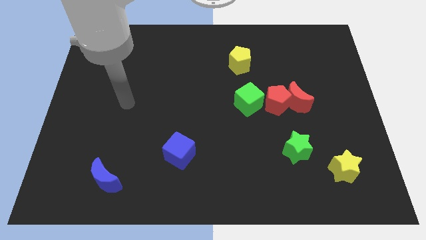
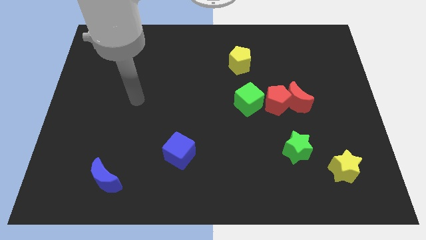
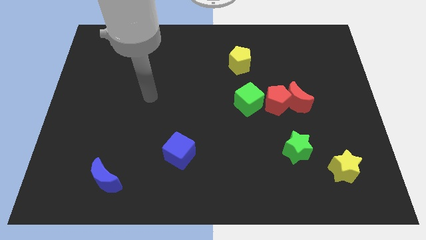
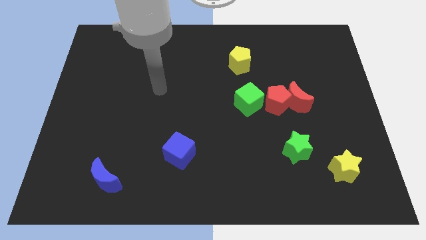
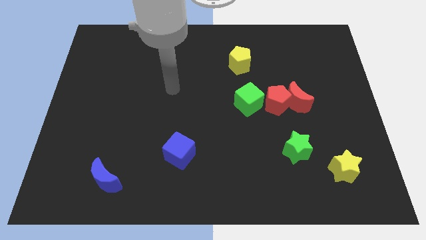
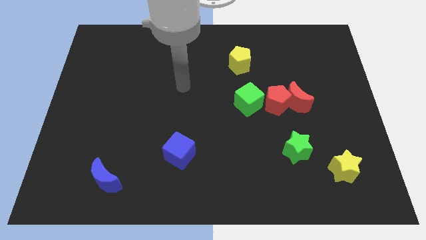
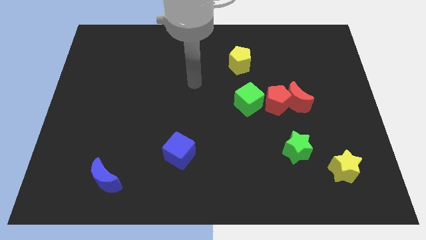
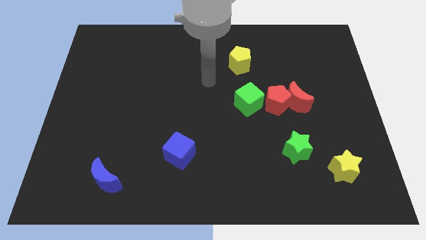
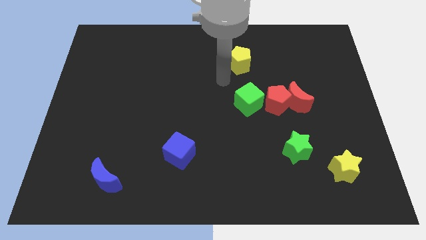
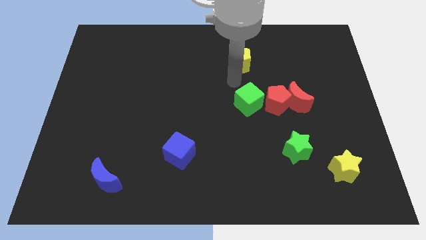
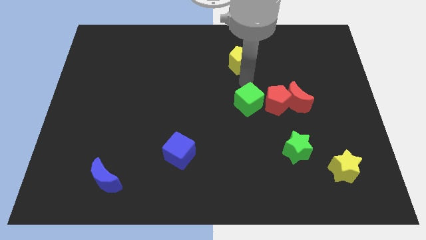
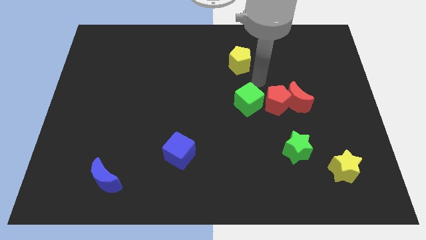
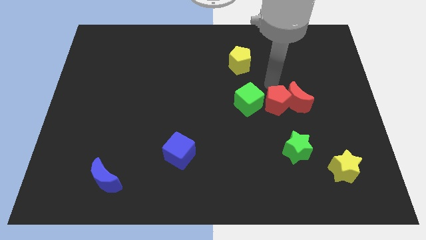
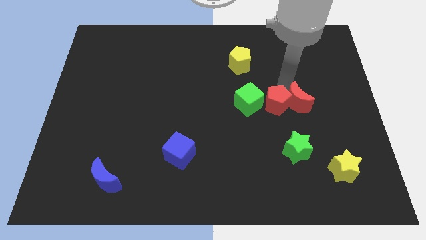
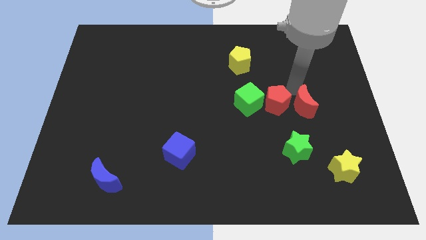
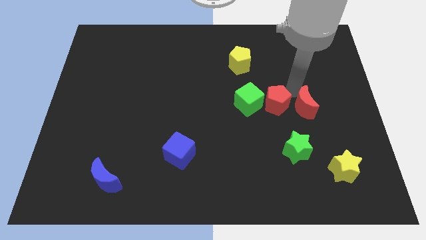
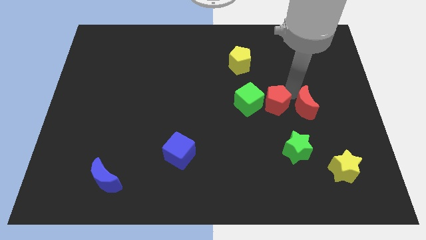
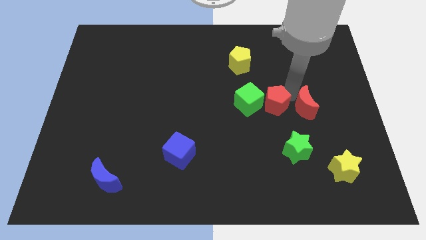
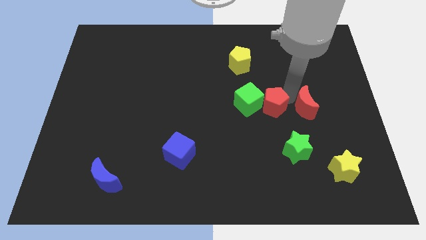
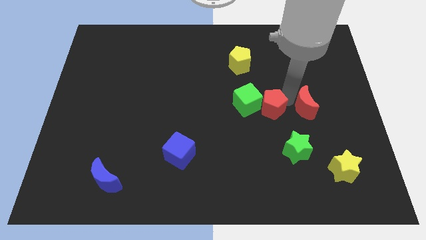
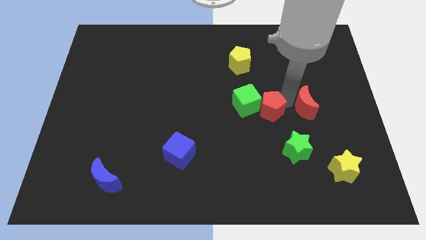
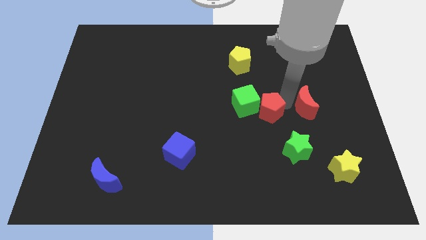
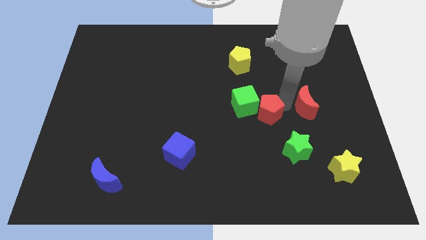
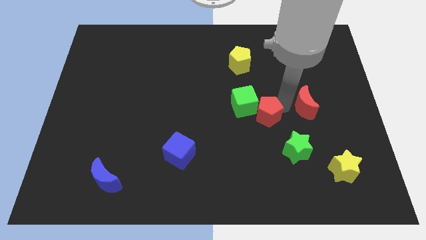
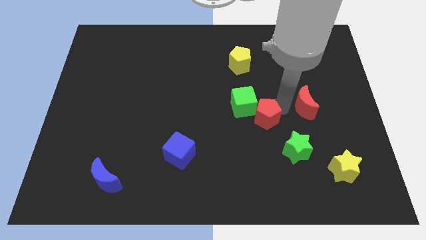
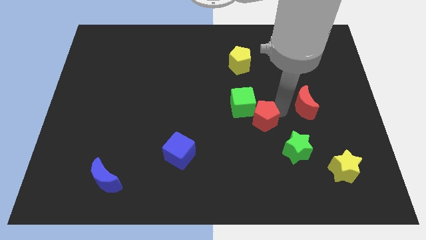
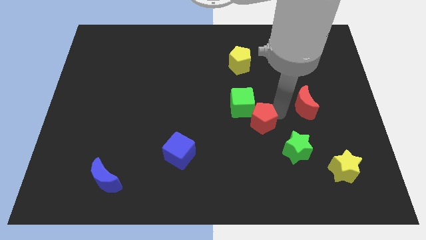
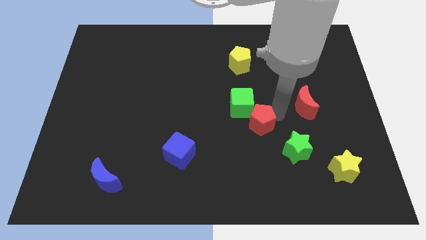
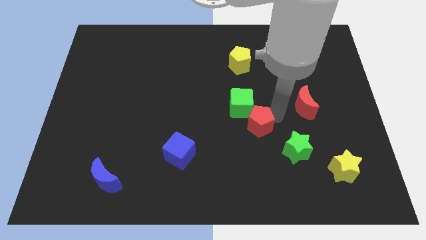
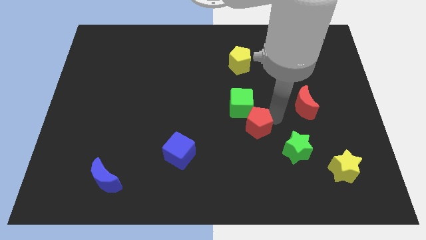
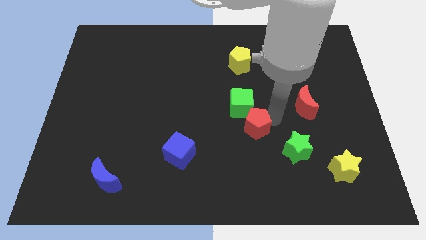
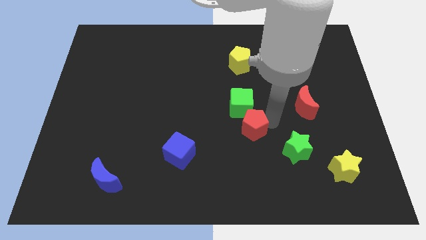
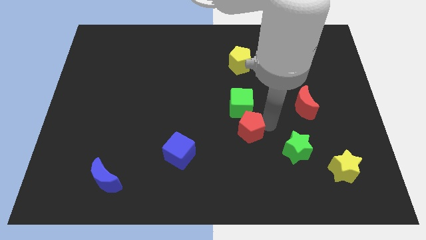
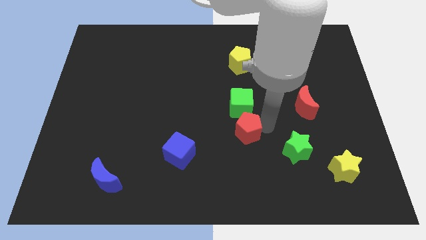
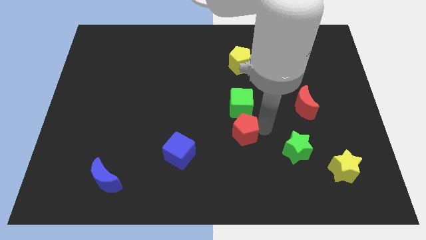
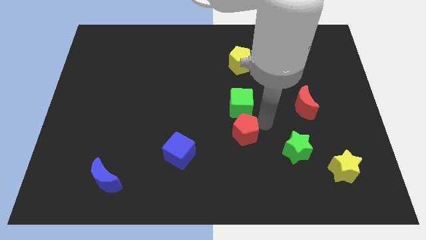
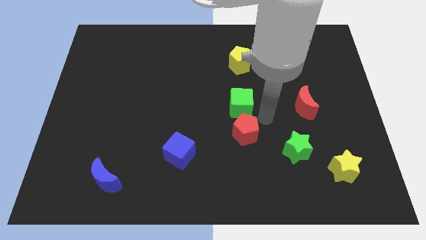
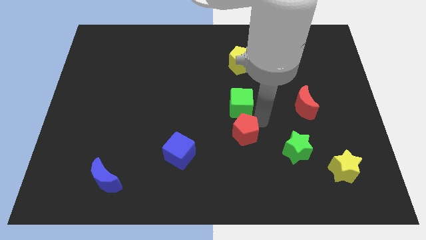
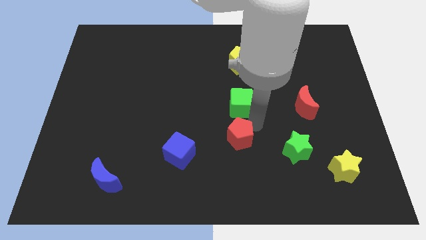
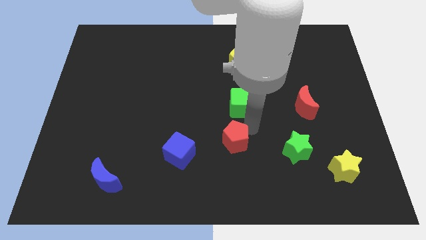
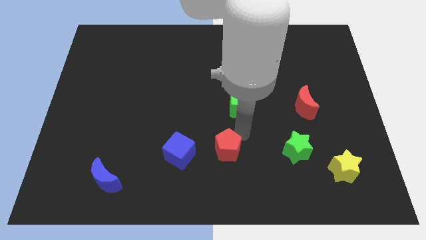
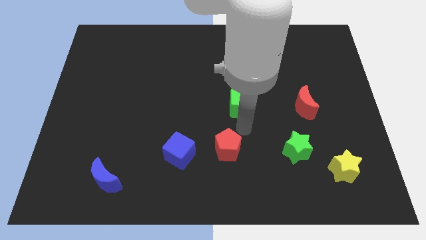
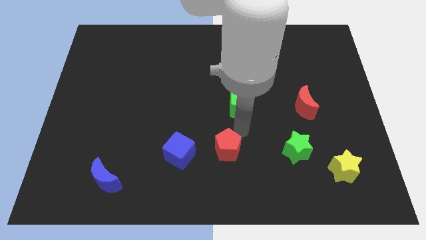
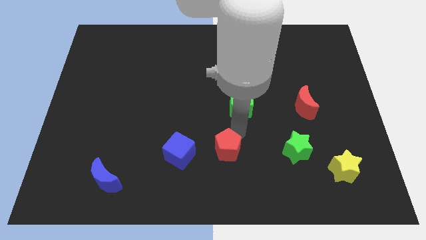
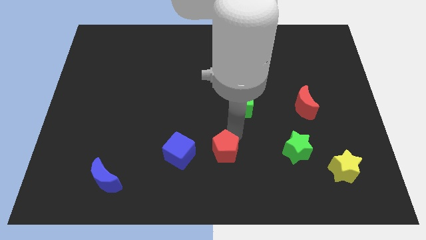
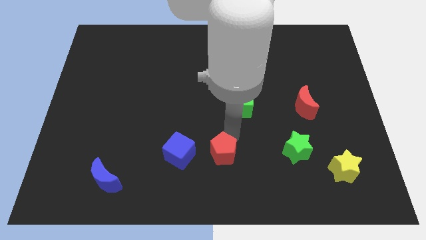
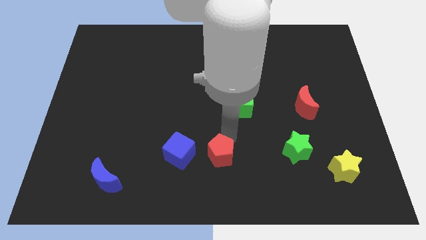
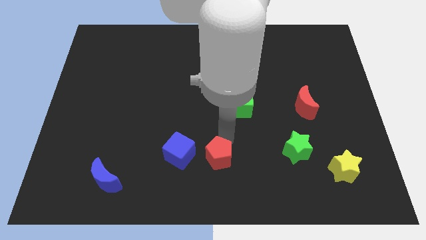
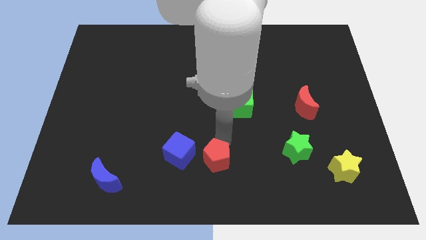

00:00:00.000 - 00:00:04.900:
put the red pentagon to the bottom right of the blue cube

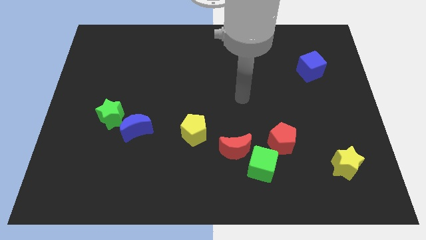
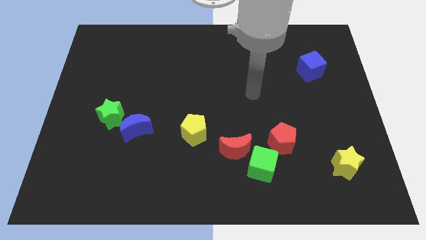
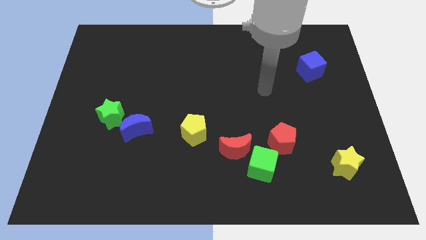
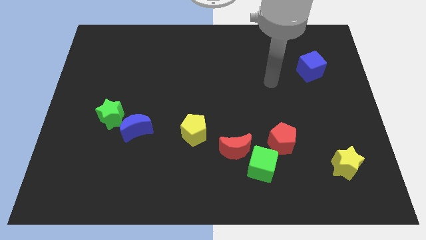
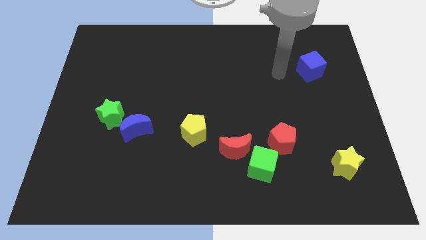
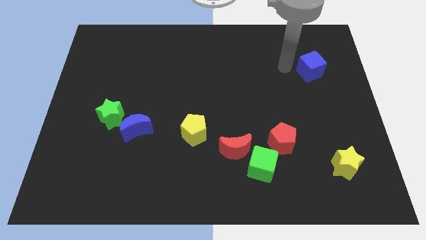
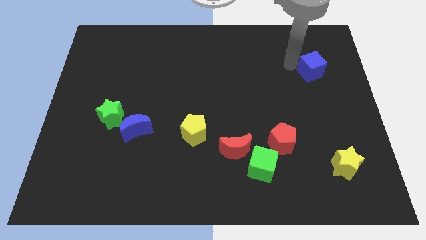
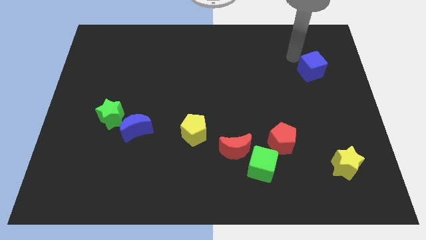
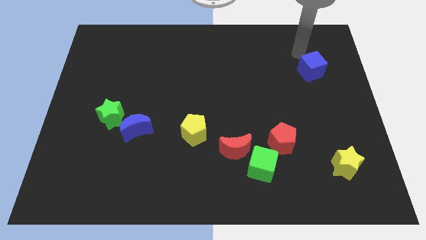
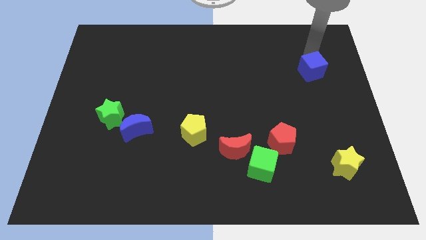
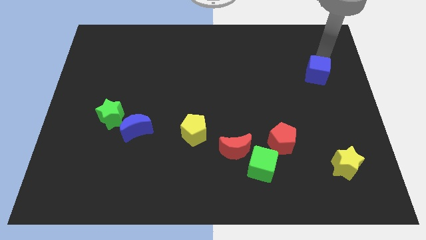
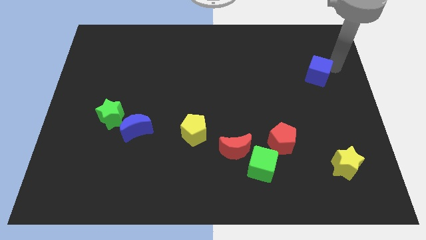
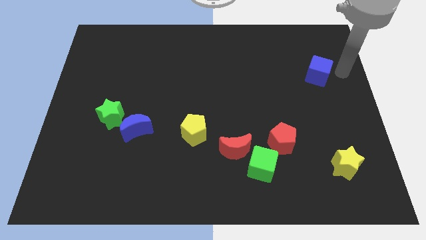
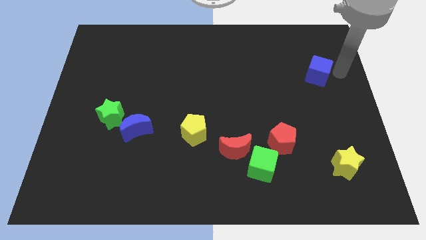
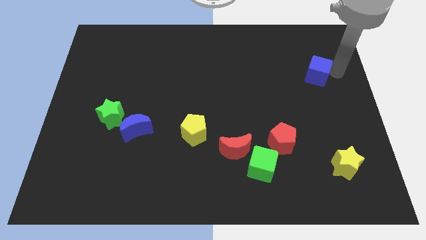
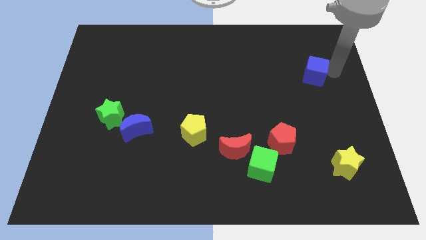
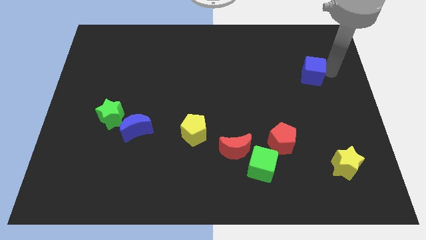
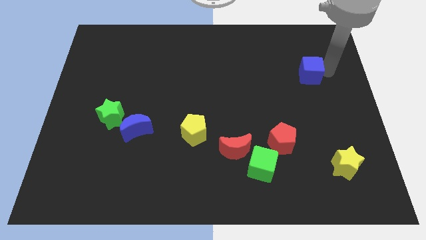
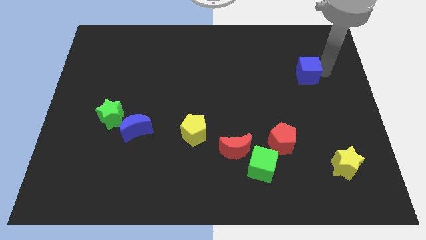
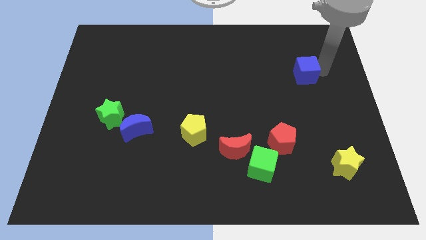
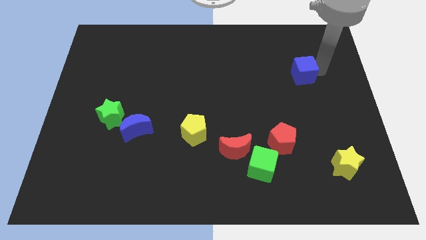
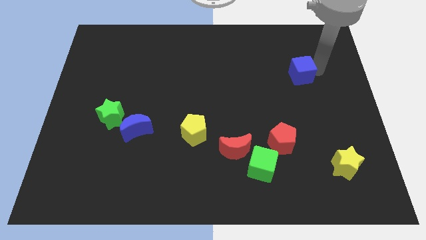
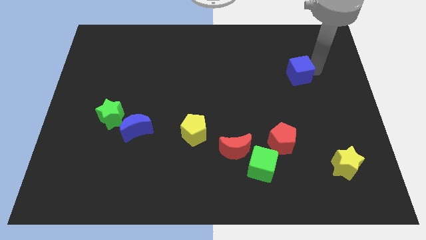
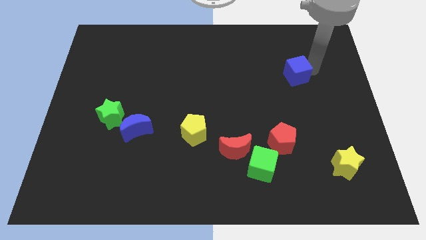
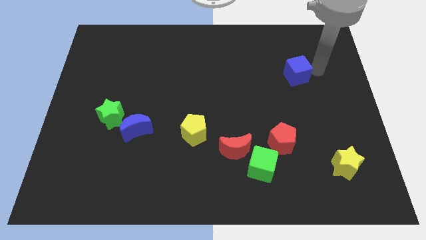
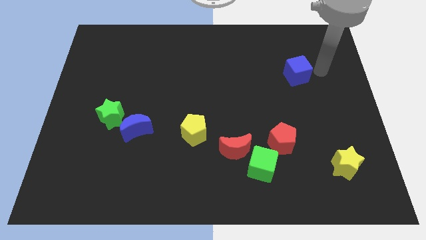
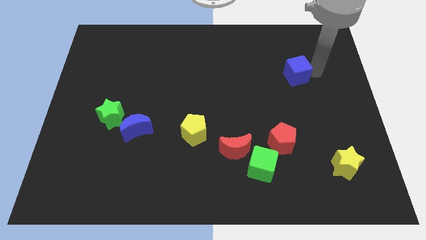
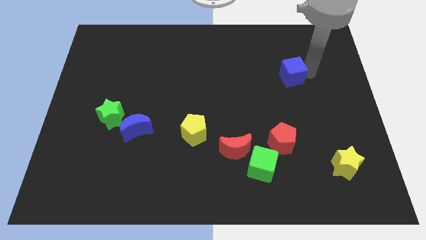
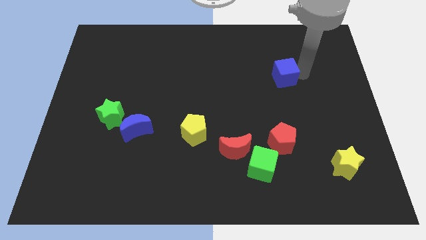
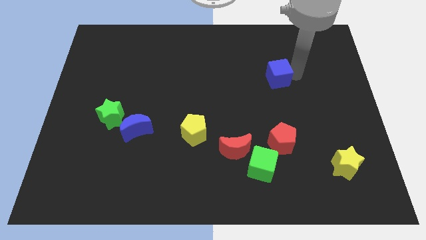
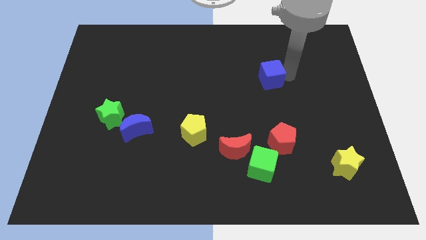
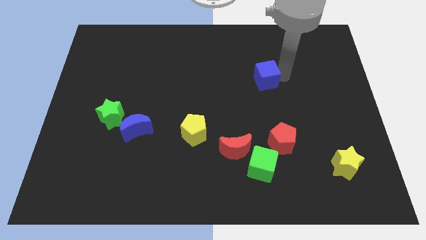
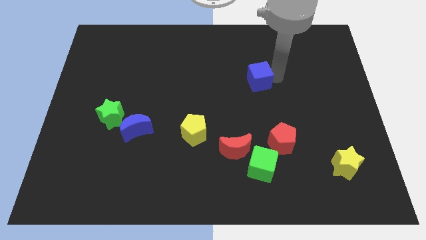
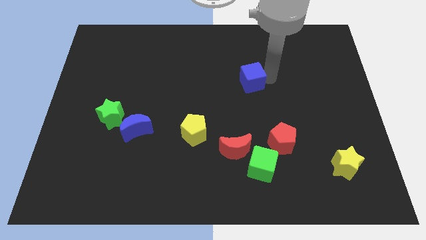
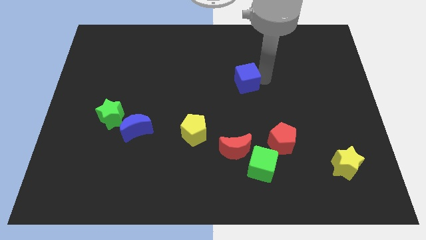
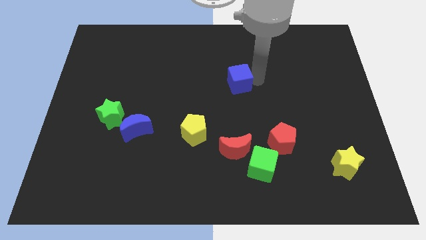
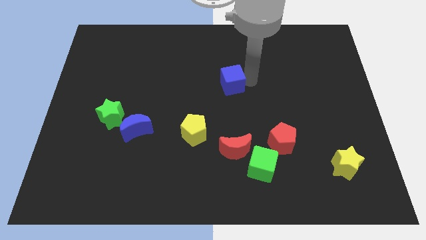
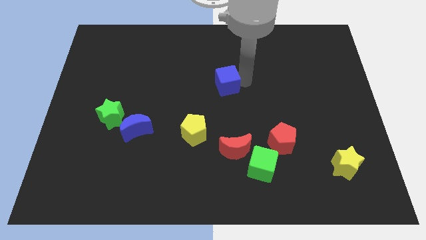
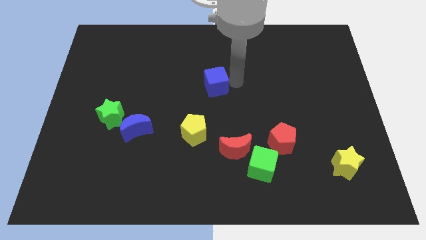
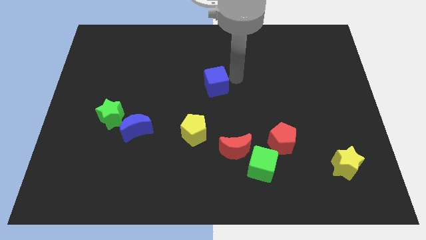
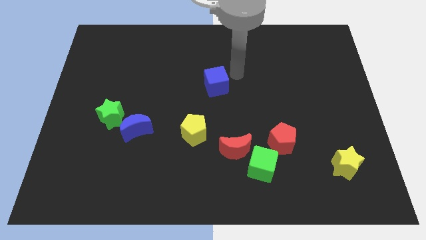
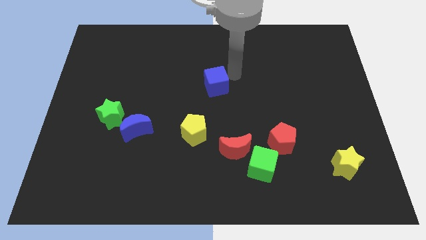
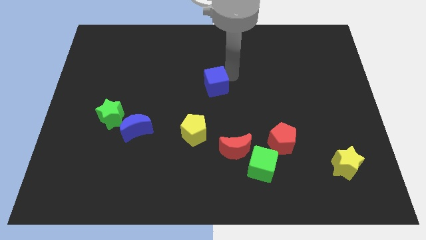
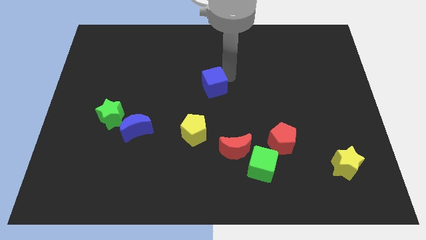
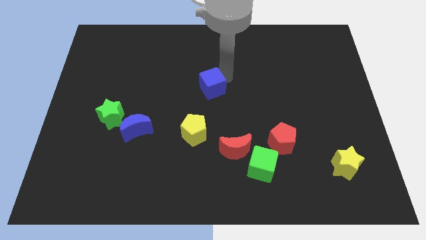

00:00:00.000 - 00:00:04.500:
slide the blue cube to the top side of the yellow pentagon
